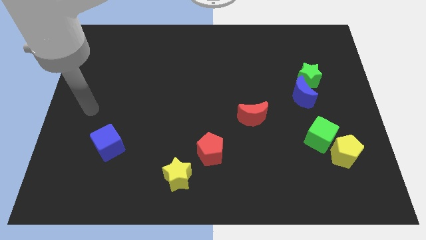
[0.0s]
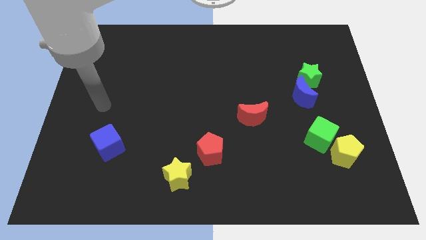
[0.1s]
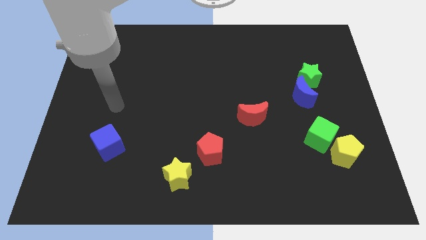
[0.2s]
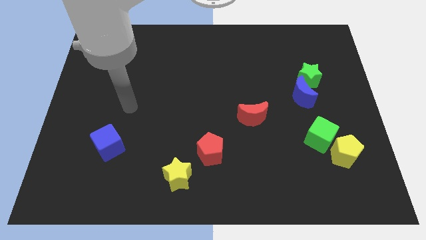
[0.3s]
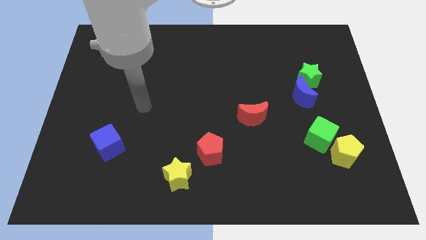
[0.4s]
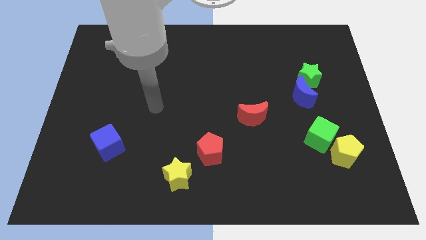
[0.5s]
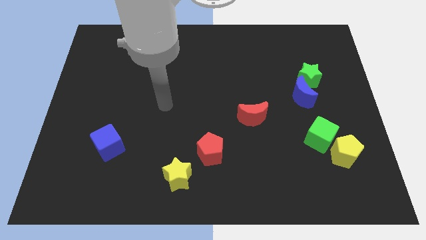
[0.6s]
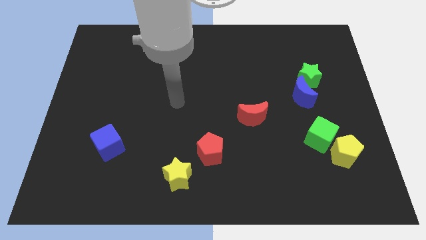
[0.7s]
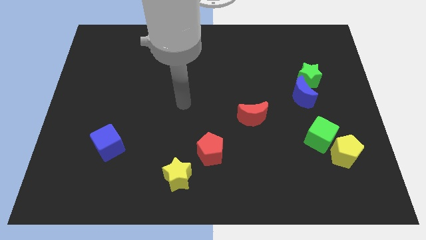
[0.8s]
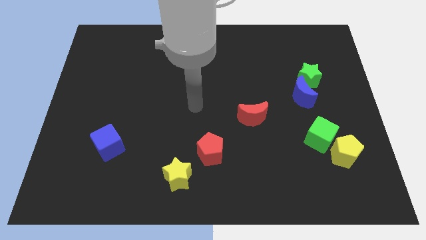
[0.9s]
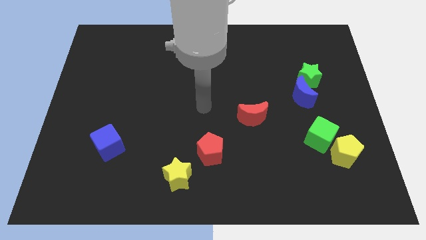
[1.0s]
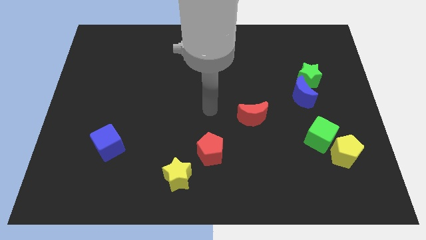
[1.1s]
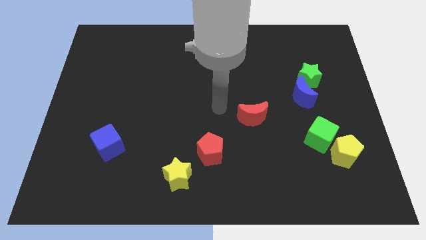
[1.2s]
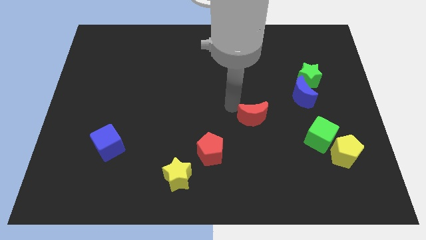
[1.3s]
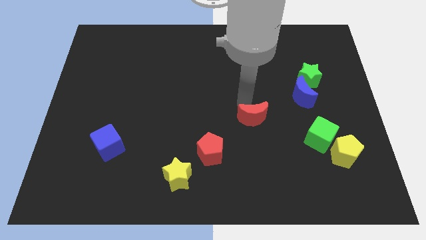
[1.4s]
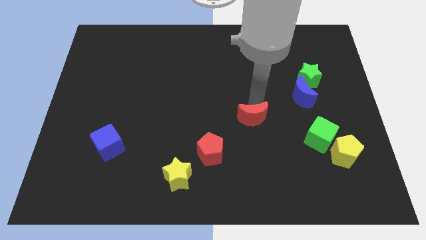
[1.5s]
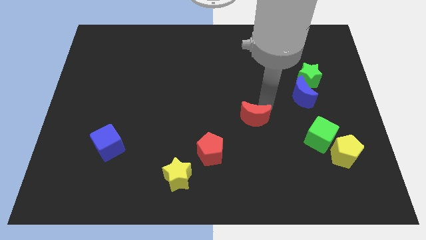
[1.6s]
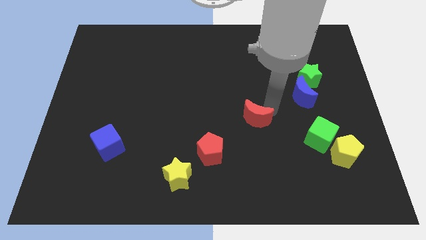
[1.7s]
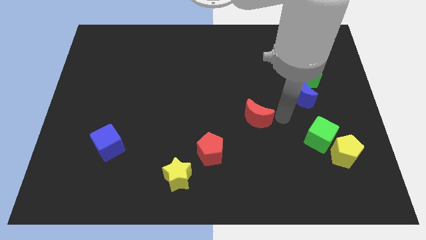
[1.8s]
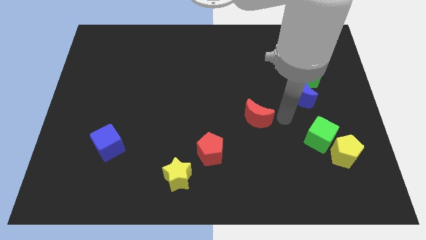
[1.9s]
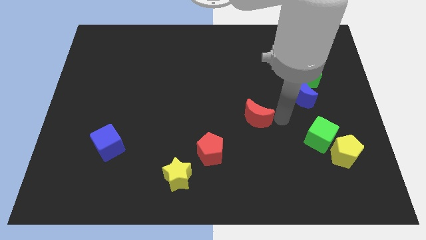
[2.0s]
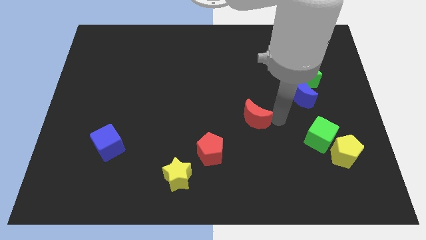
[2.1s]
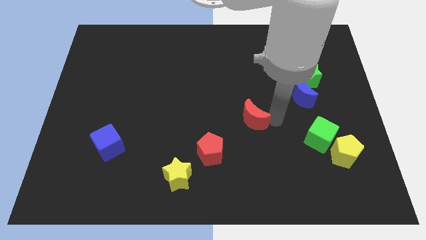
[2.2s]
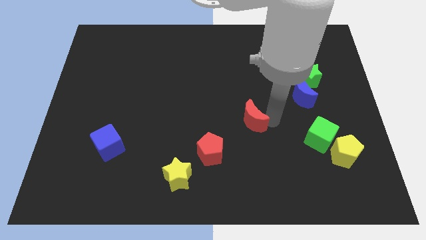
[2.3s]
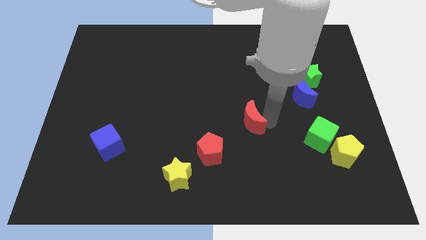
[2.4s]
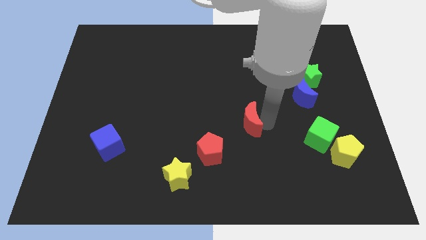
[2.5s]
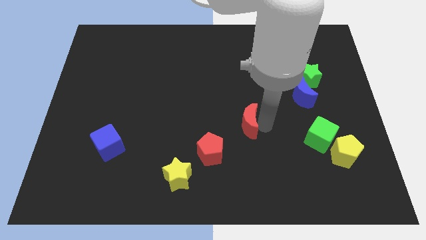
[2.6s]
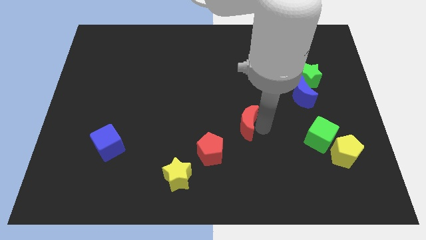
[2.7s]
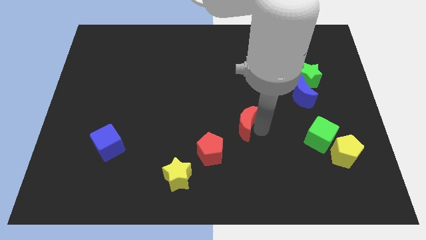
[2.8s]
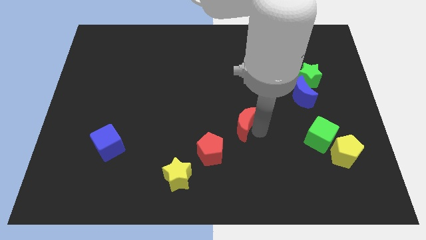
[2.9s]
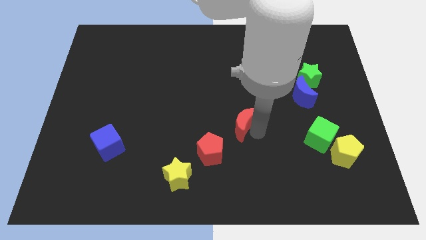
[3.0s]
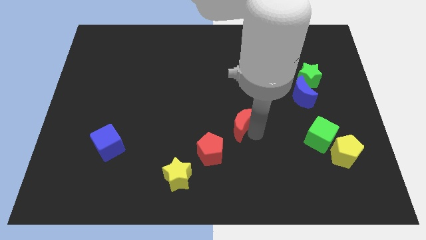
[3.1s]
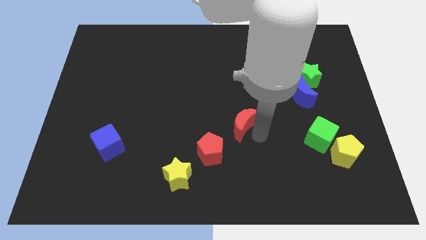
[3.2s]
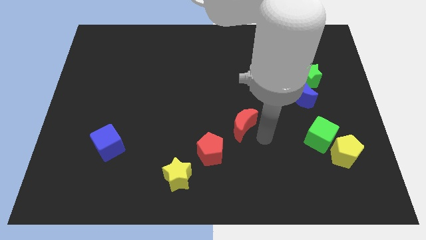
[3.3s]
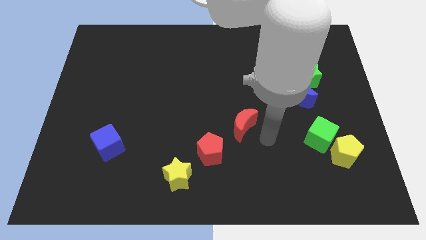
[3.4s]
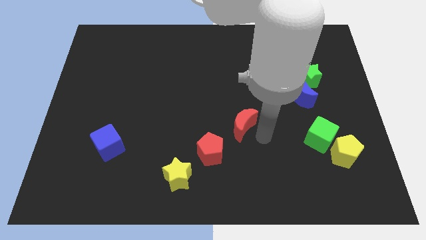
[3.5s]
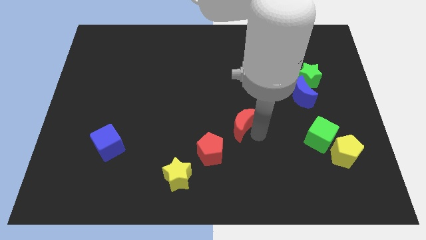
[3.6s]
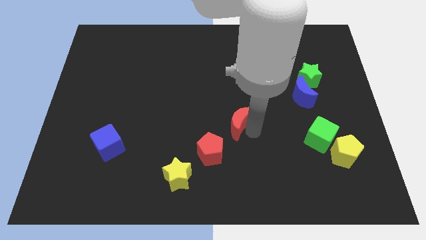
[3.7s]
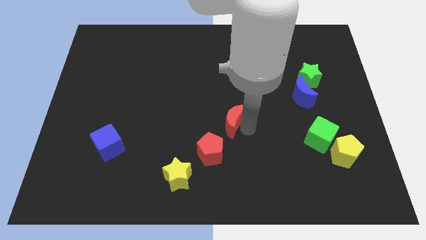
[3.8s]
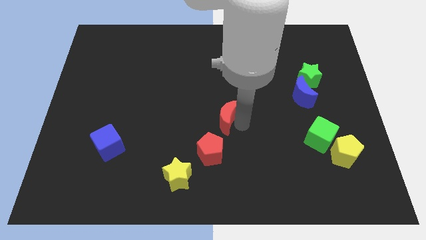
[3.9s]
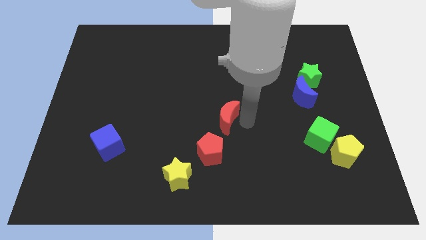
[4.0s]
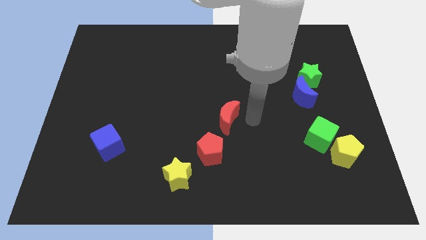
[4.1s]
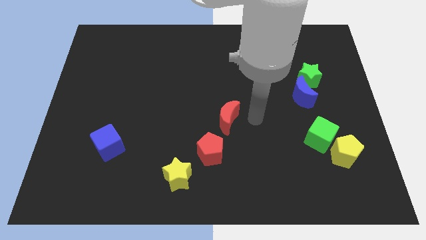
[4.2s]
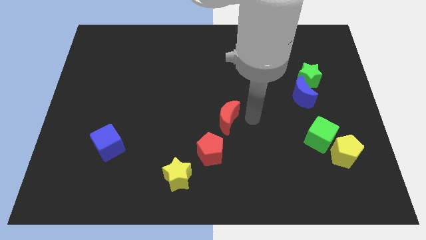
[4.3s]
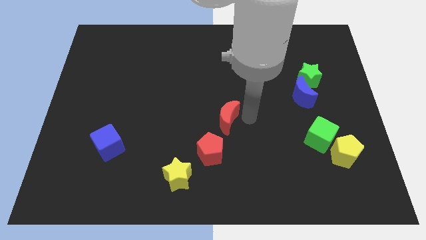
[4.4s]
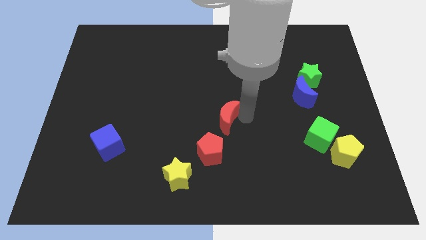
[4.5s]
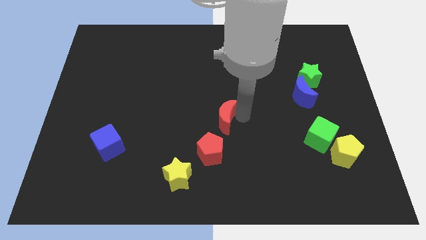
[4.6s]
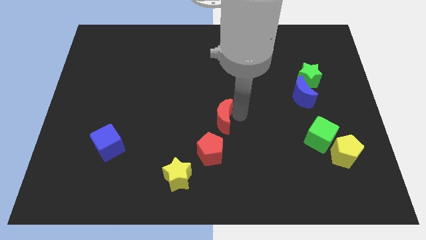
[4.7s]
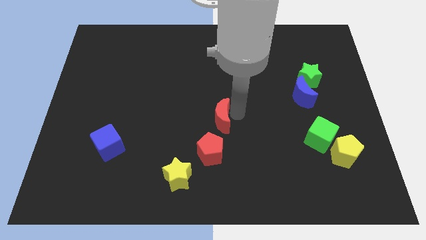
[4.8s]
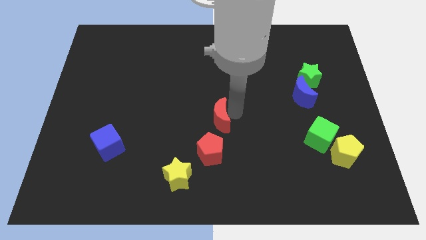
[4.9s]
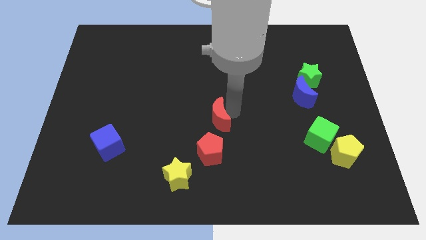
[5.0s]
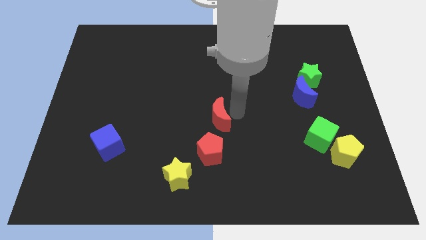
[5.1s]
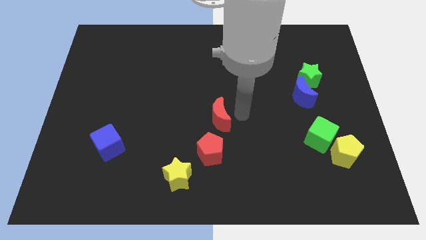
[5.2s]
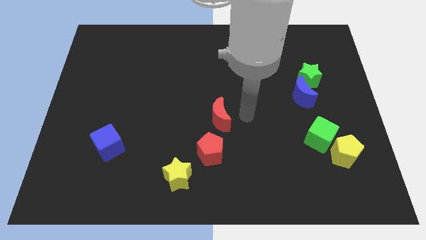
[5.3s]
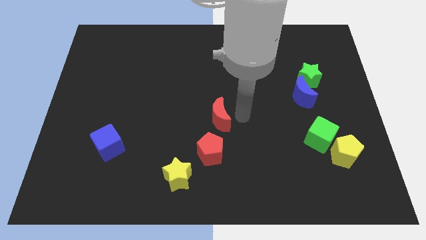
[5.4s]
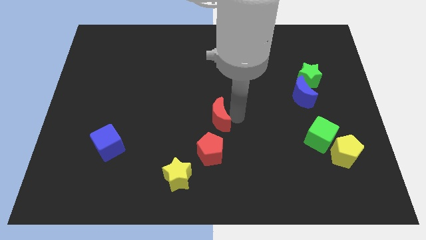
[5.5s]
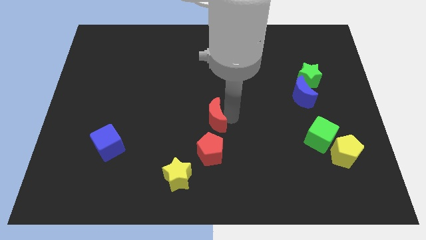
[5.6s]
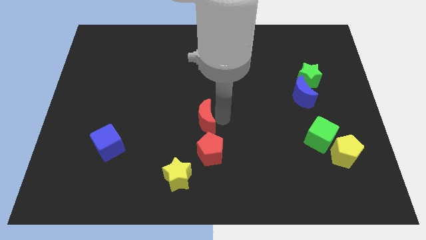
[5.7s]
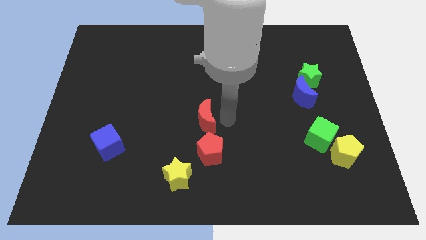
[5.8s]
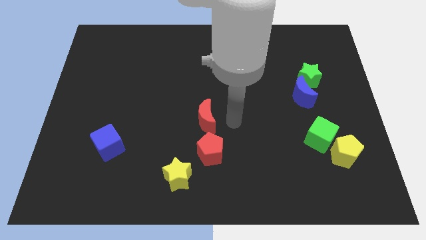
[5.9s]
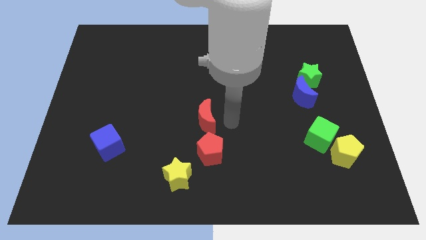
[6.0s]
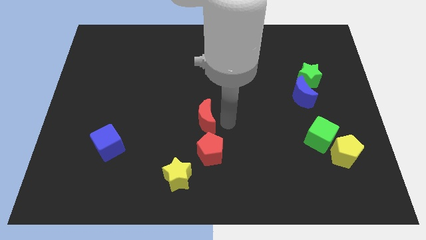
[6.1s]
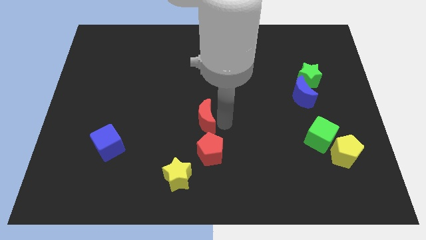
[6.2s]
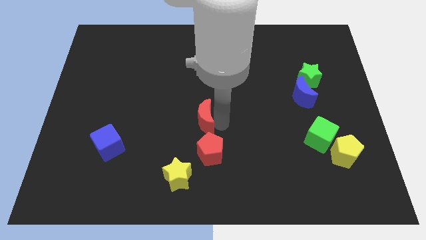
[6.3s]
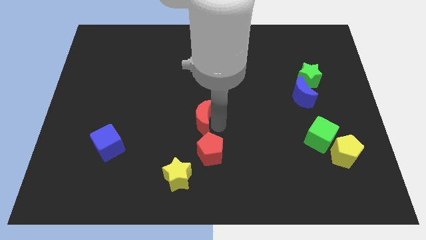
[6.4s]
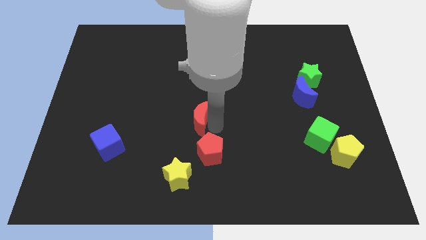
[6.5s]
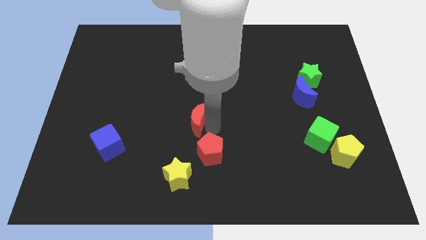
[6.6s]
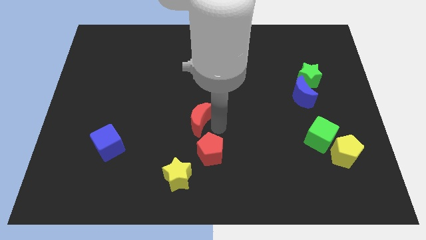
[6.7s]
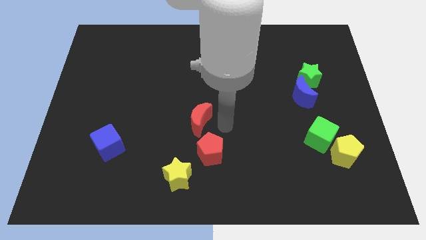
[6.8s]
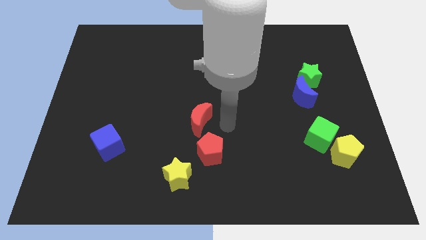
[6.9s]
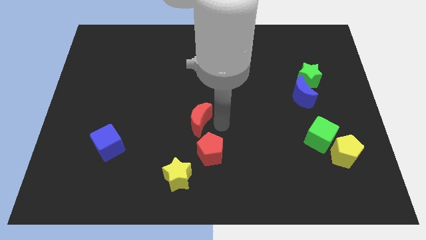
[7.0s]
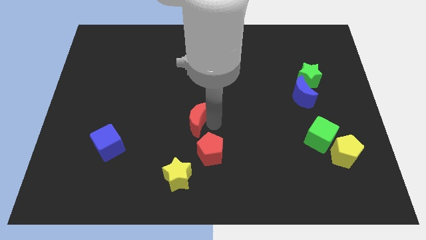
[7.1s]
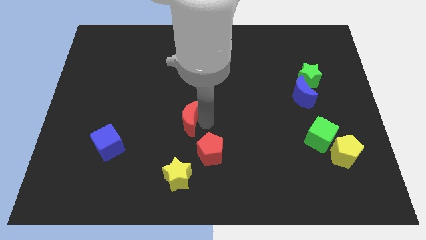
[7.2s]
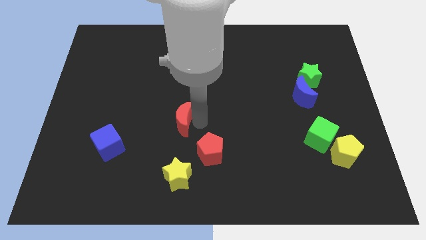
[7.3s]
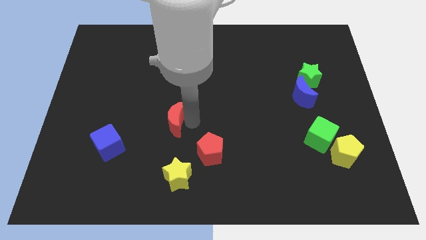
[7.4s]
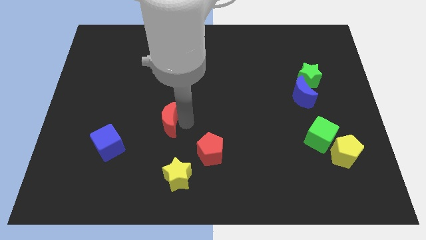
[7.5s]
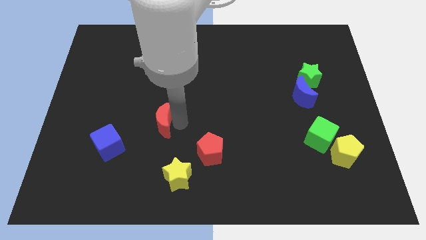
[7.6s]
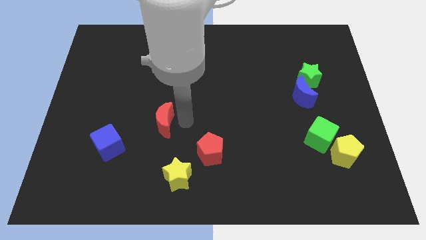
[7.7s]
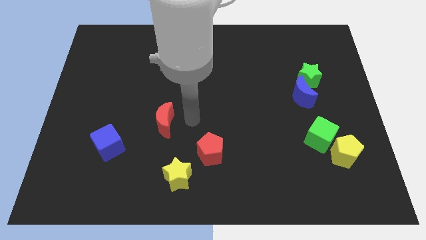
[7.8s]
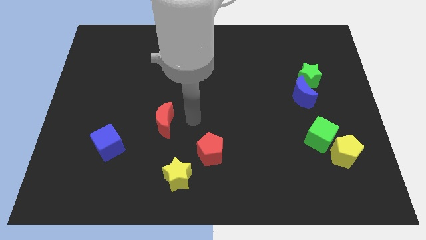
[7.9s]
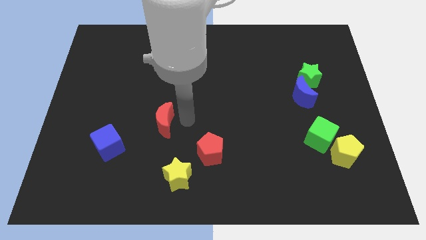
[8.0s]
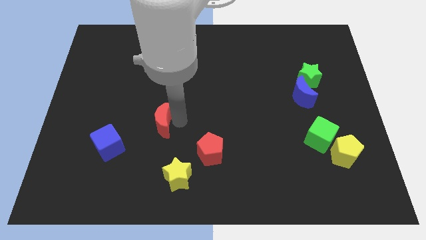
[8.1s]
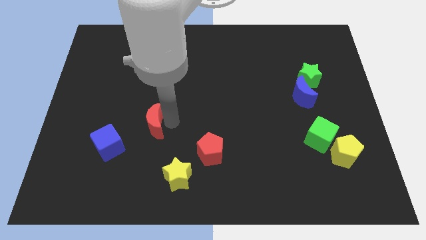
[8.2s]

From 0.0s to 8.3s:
slide the red moon diagonally up and to the right of the blue cube
